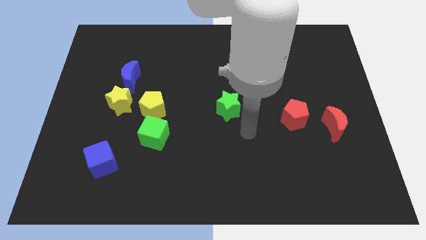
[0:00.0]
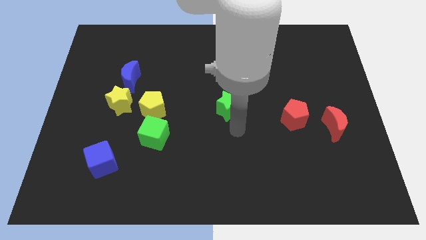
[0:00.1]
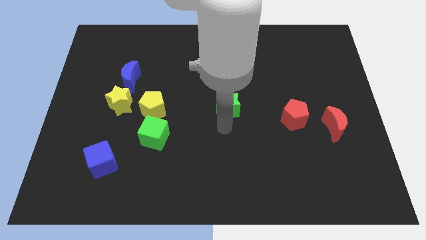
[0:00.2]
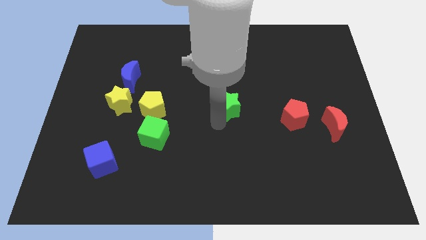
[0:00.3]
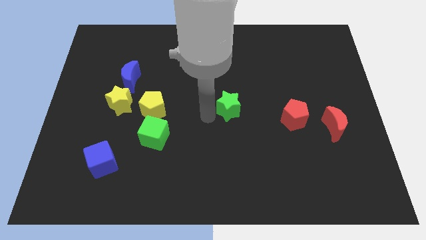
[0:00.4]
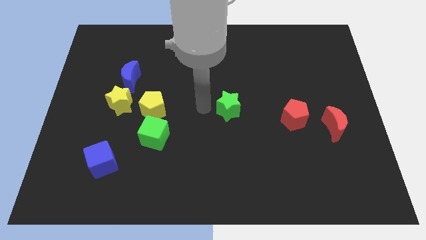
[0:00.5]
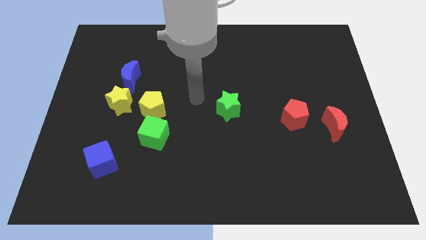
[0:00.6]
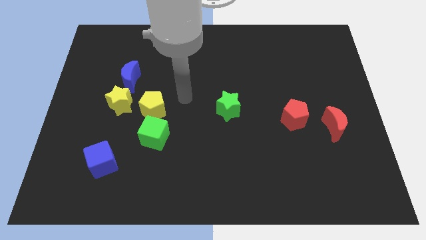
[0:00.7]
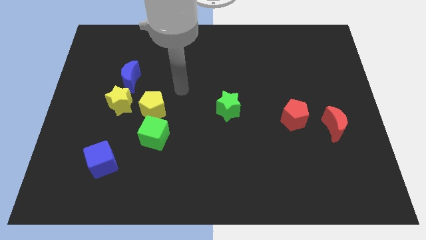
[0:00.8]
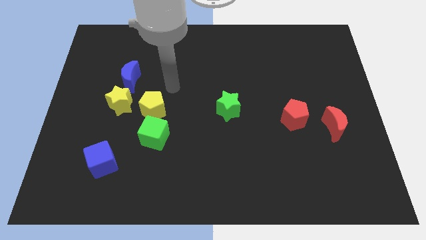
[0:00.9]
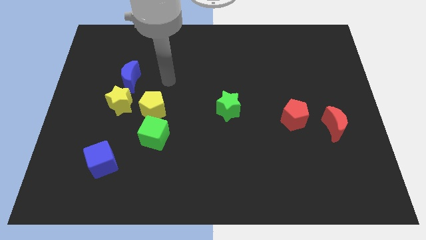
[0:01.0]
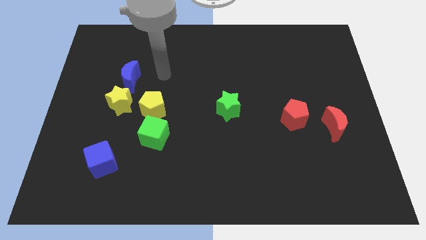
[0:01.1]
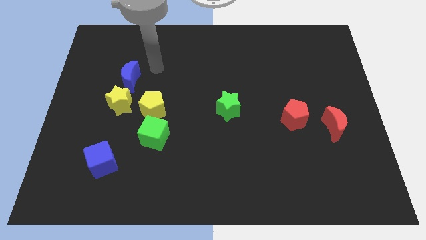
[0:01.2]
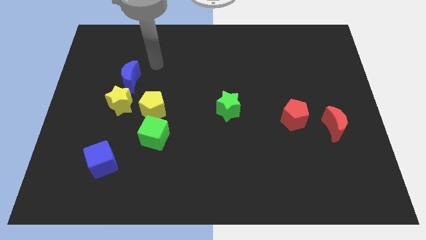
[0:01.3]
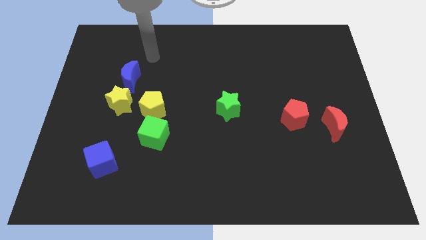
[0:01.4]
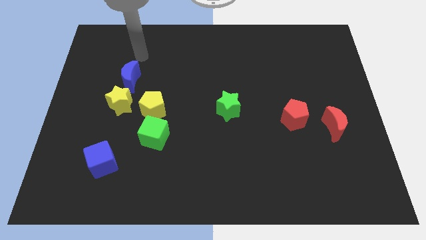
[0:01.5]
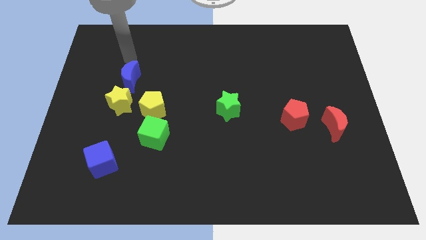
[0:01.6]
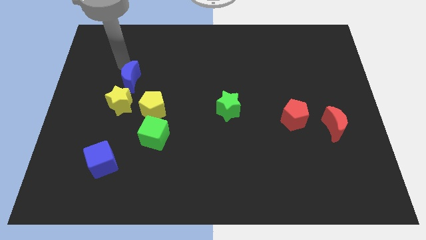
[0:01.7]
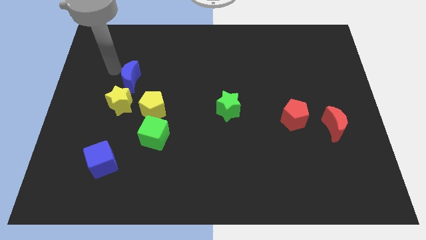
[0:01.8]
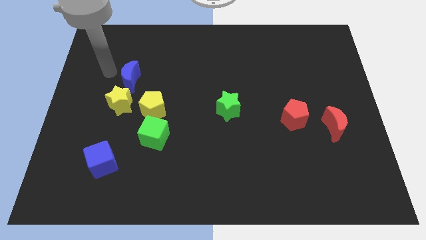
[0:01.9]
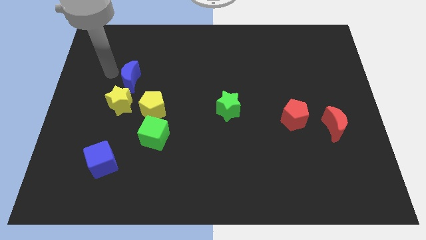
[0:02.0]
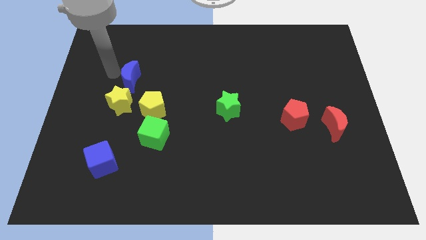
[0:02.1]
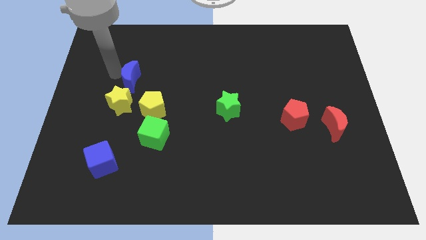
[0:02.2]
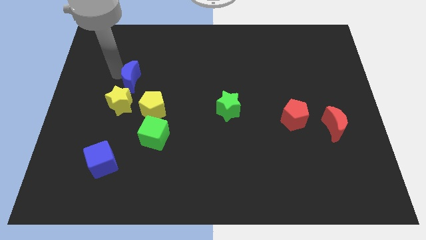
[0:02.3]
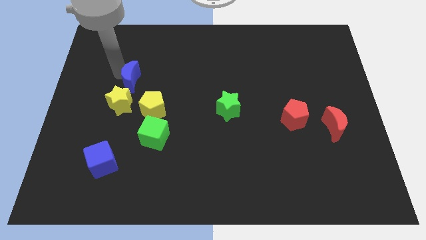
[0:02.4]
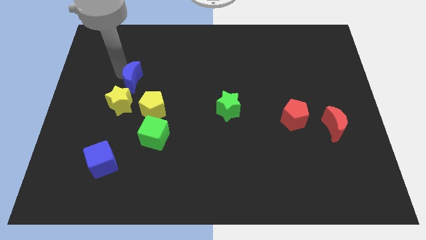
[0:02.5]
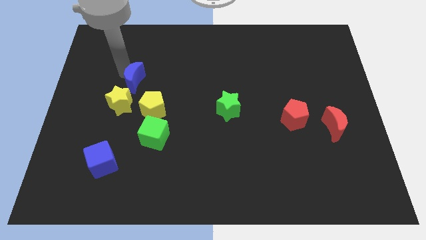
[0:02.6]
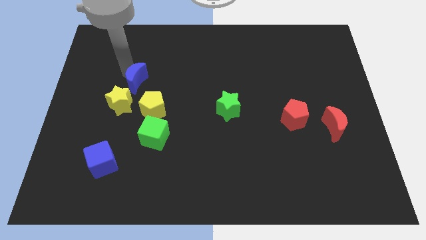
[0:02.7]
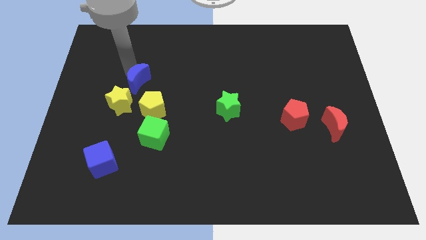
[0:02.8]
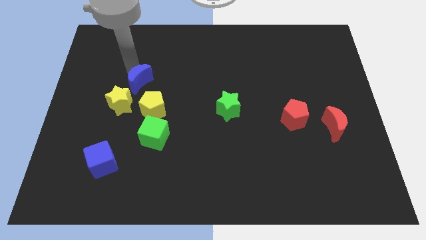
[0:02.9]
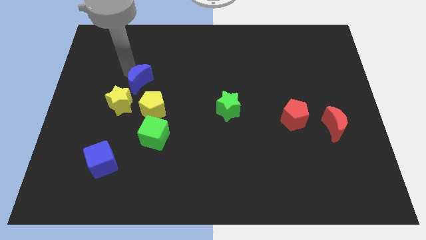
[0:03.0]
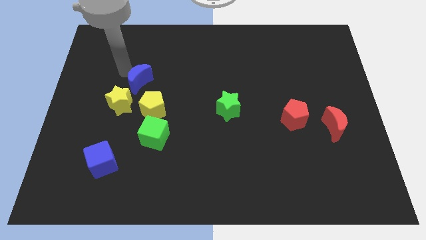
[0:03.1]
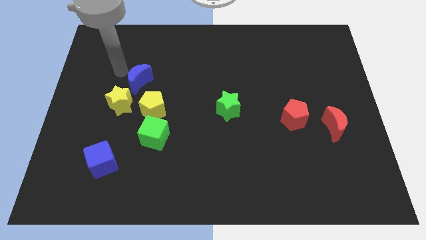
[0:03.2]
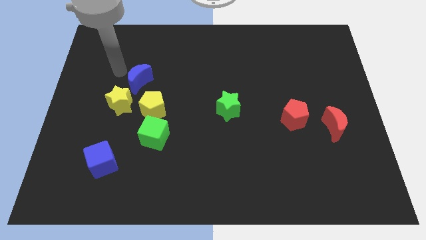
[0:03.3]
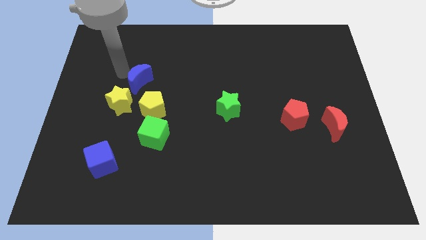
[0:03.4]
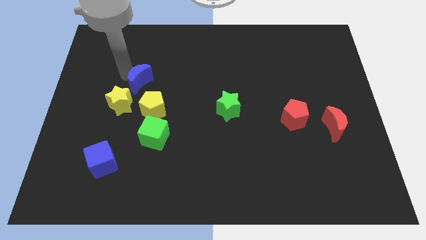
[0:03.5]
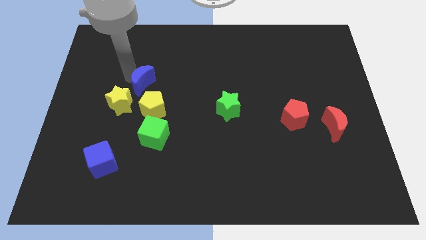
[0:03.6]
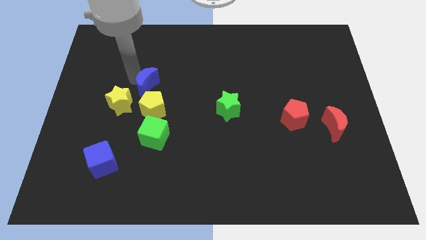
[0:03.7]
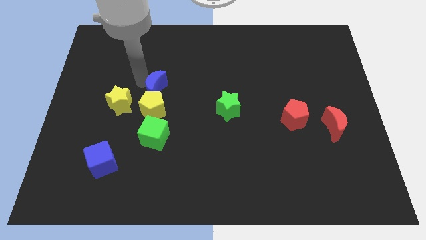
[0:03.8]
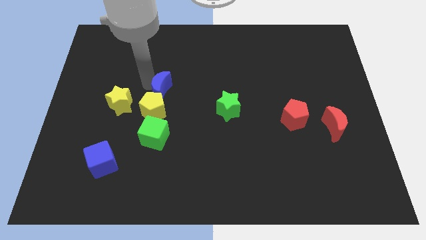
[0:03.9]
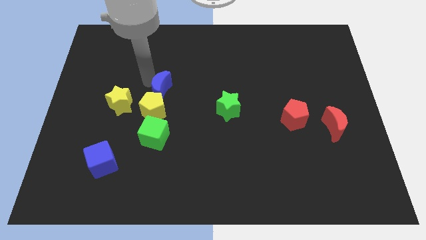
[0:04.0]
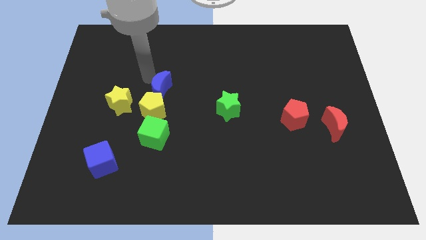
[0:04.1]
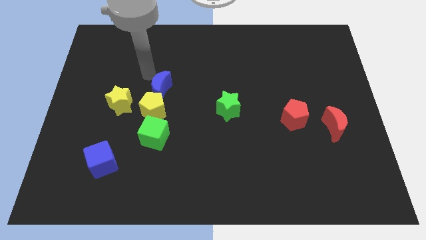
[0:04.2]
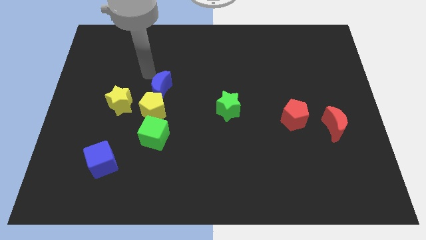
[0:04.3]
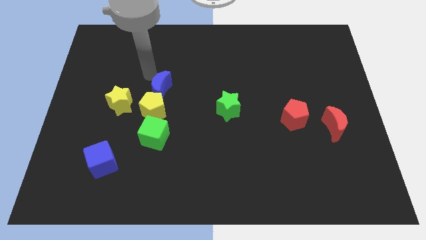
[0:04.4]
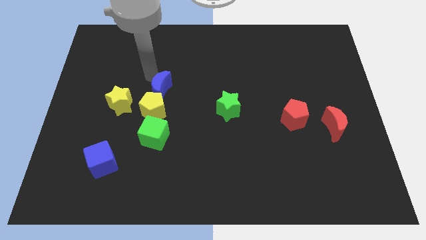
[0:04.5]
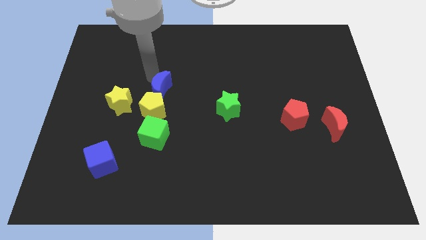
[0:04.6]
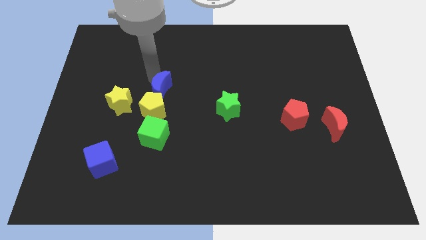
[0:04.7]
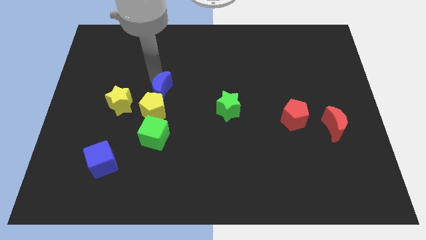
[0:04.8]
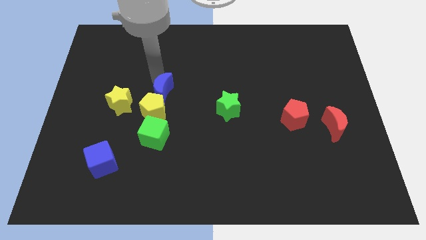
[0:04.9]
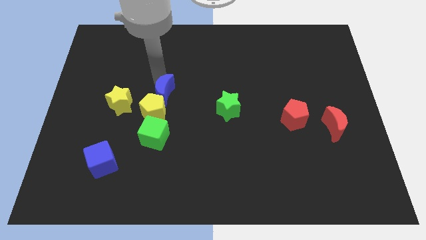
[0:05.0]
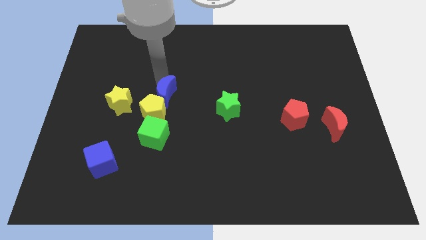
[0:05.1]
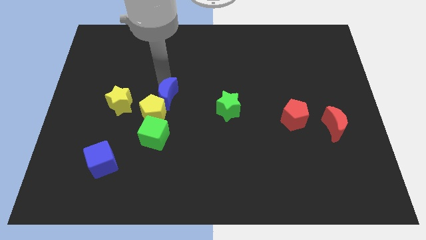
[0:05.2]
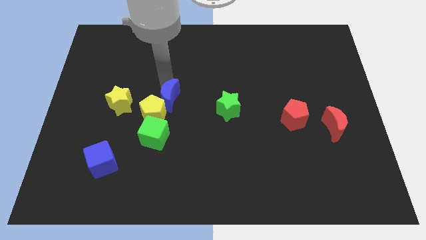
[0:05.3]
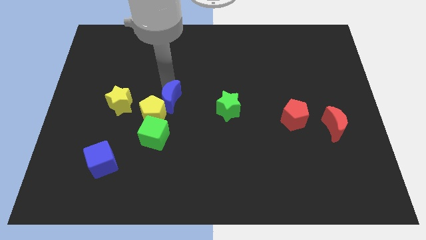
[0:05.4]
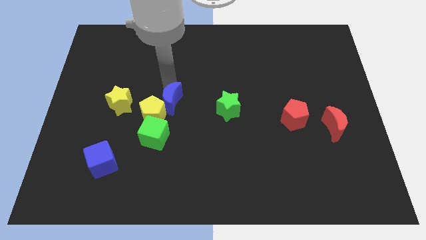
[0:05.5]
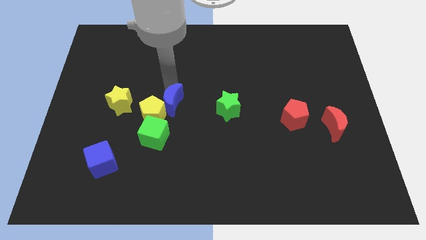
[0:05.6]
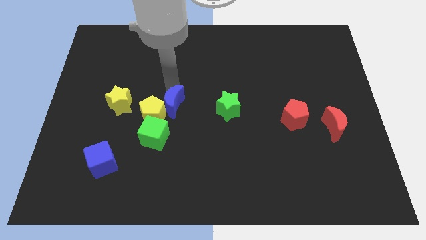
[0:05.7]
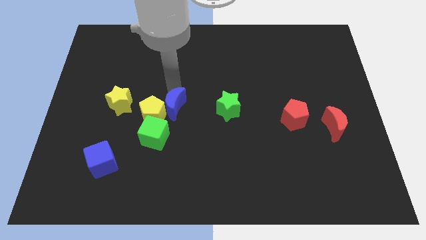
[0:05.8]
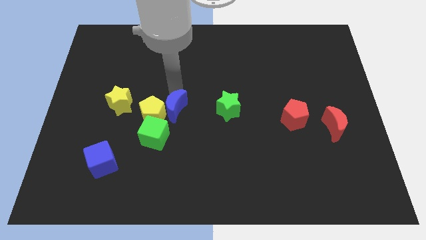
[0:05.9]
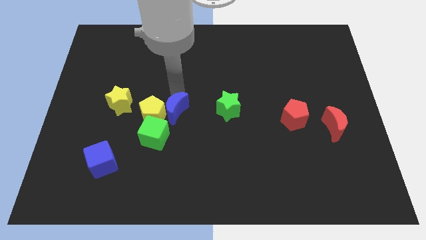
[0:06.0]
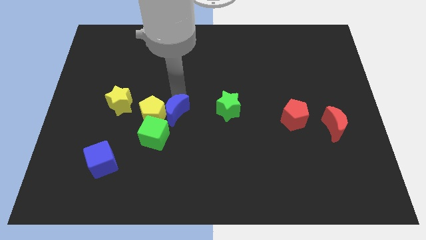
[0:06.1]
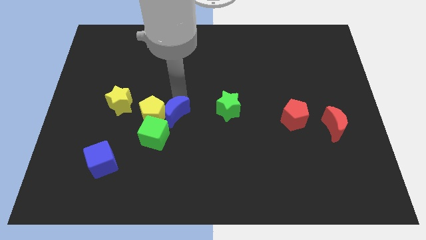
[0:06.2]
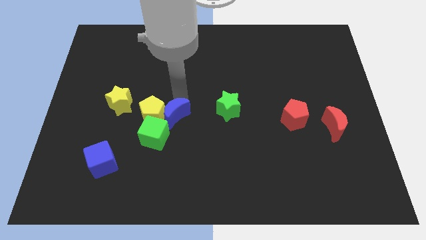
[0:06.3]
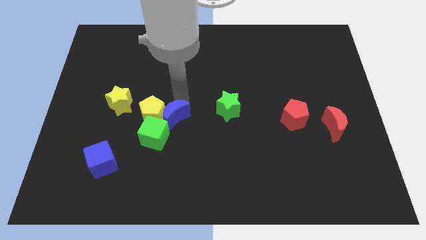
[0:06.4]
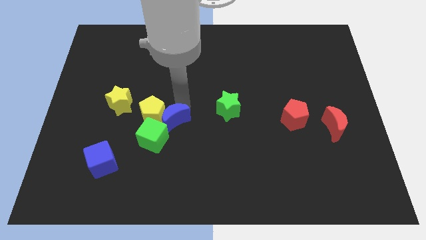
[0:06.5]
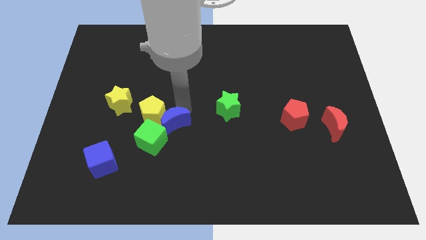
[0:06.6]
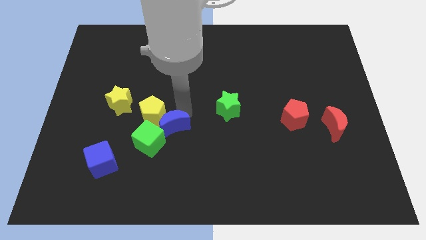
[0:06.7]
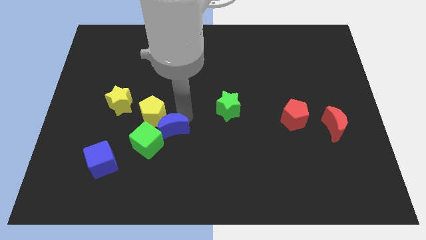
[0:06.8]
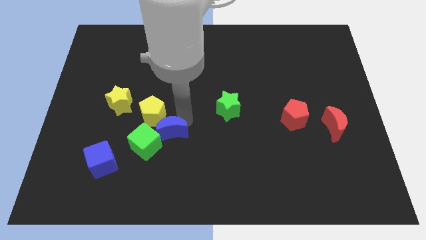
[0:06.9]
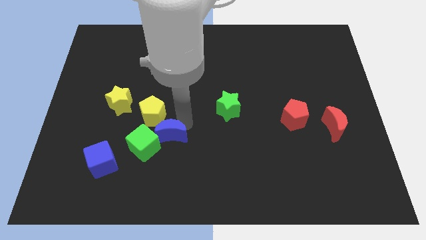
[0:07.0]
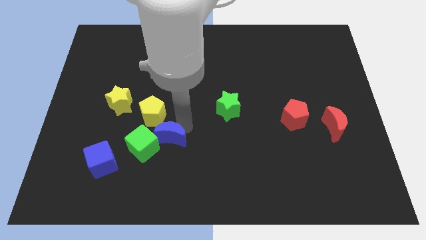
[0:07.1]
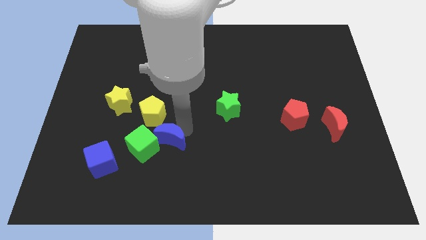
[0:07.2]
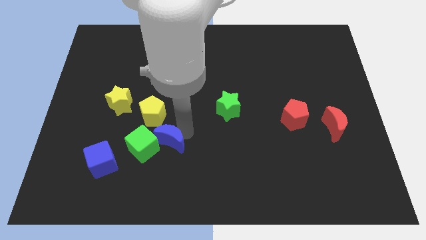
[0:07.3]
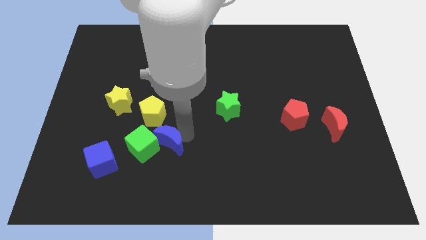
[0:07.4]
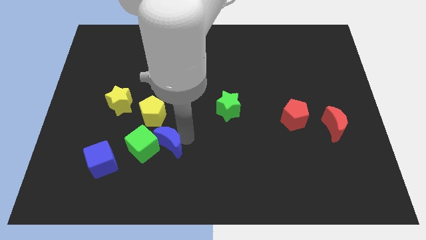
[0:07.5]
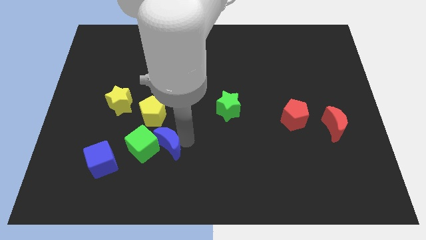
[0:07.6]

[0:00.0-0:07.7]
move the blue moon just right of the blue cube

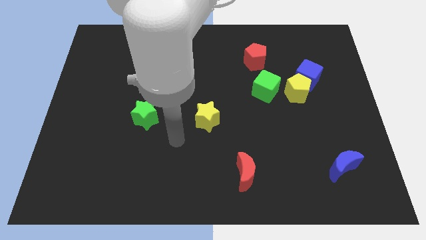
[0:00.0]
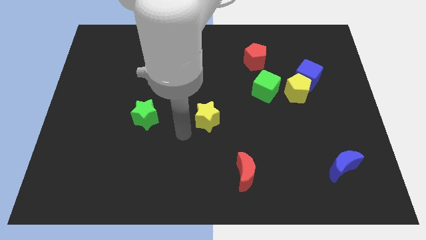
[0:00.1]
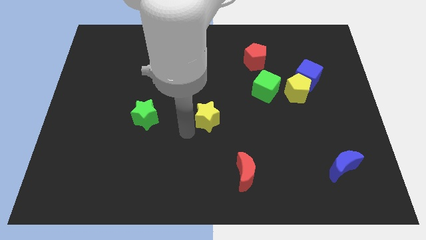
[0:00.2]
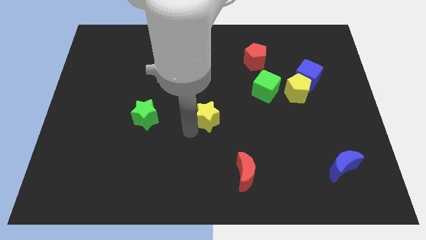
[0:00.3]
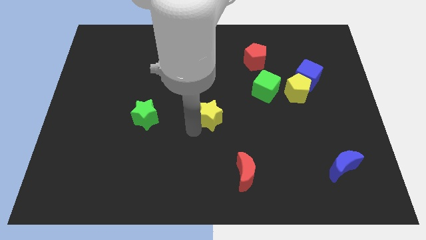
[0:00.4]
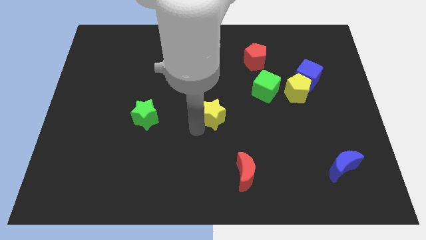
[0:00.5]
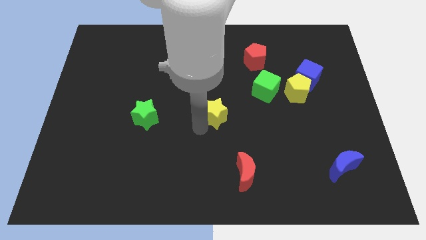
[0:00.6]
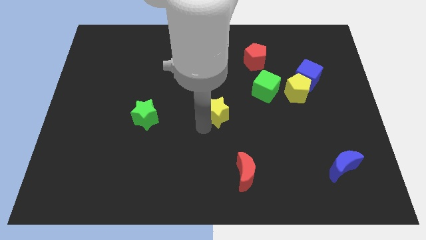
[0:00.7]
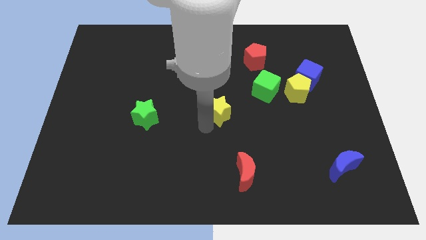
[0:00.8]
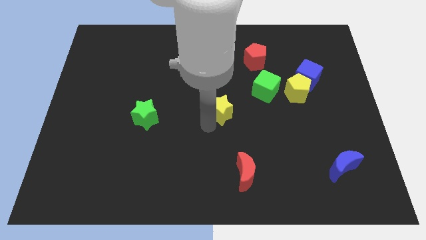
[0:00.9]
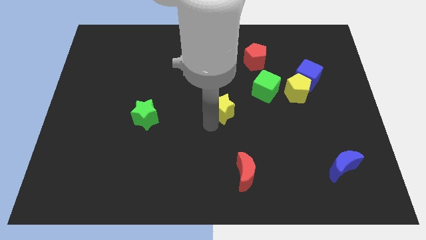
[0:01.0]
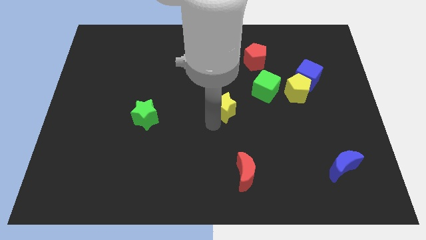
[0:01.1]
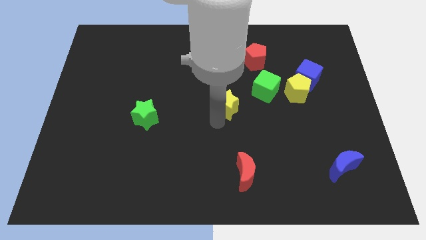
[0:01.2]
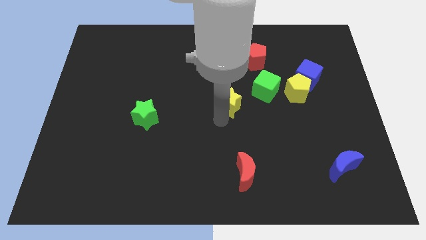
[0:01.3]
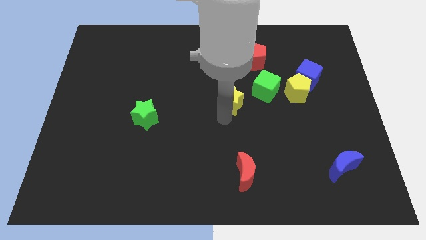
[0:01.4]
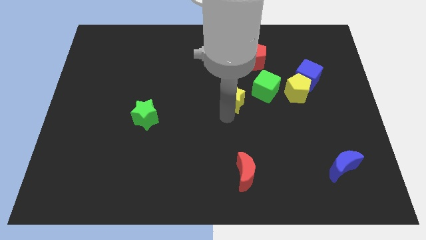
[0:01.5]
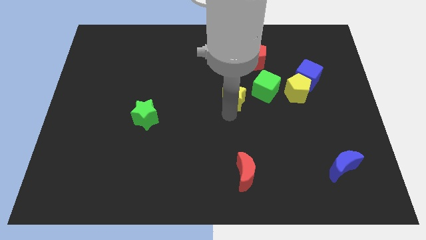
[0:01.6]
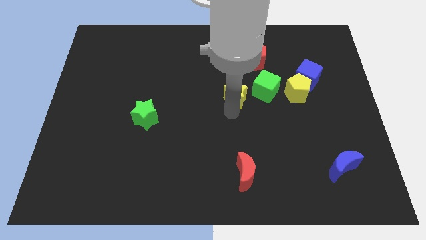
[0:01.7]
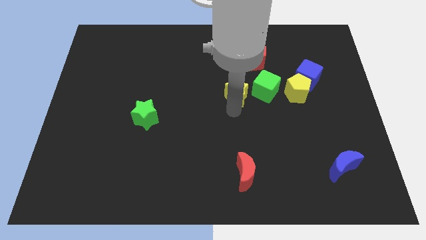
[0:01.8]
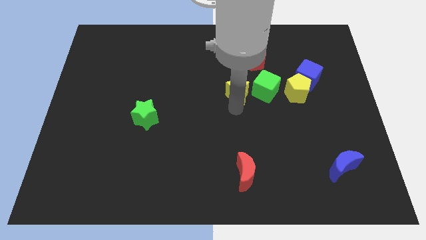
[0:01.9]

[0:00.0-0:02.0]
slide the yellow star to the bottom side of the red pentagon
